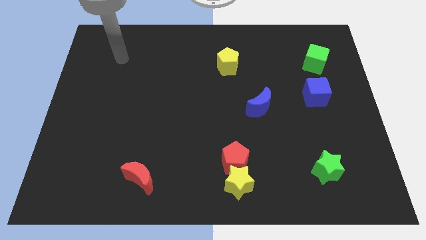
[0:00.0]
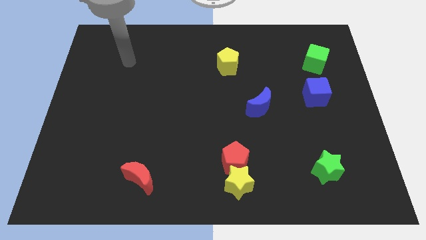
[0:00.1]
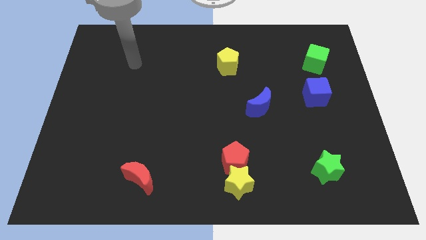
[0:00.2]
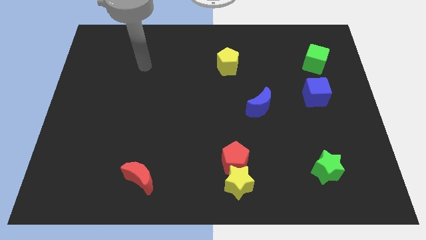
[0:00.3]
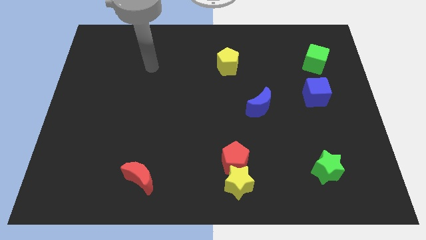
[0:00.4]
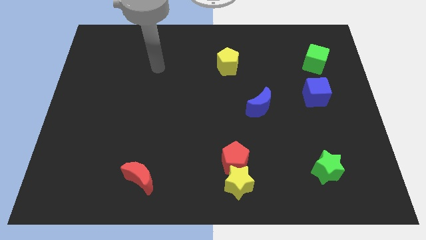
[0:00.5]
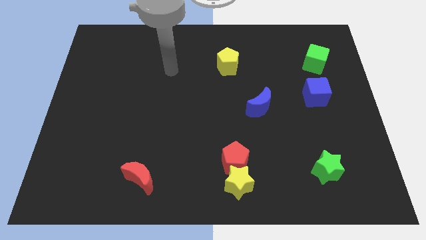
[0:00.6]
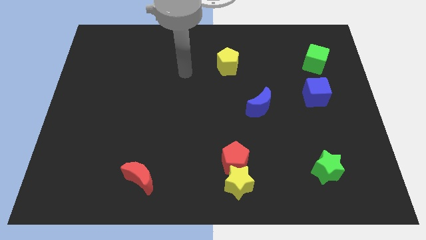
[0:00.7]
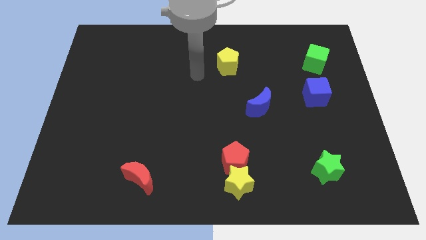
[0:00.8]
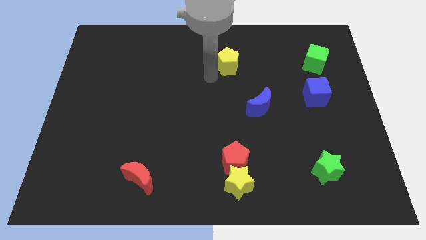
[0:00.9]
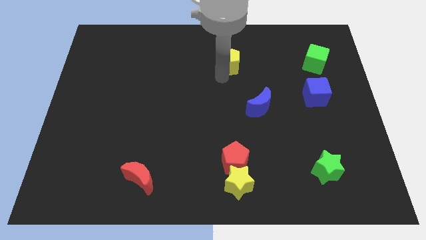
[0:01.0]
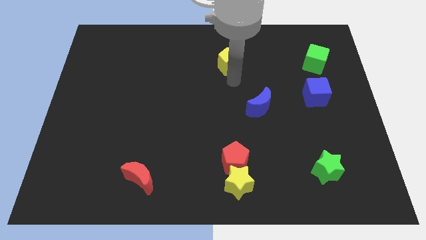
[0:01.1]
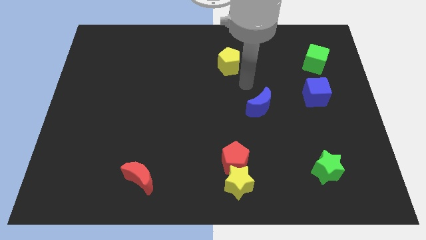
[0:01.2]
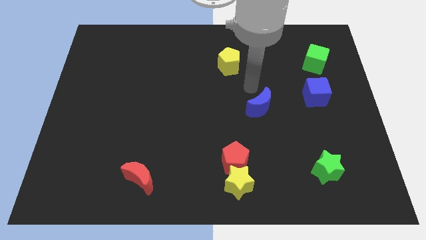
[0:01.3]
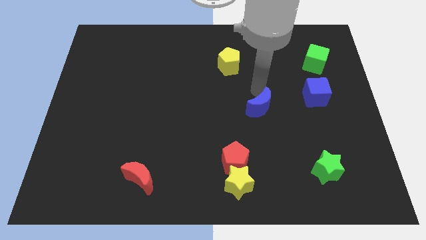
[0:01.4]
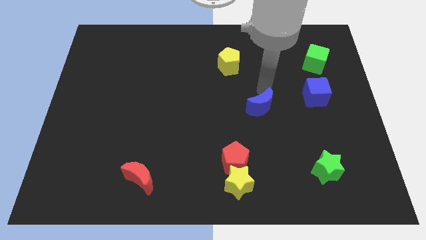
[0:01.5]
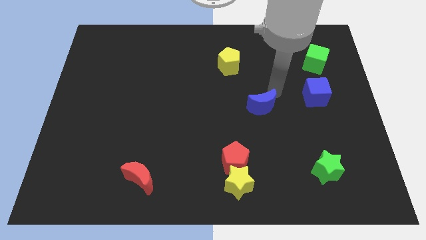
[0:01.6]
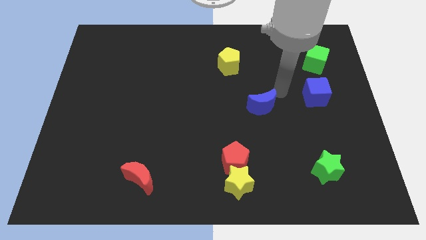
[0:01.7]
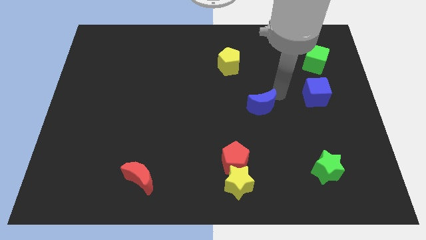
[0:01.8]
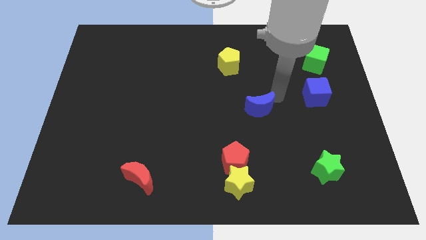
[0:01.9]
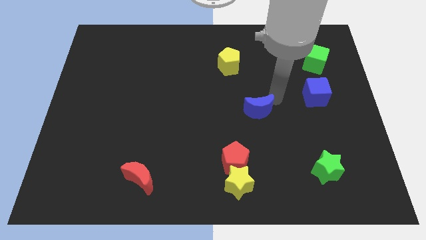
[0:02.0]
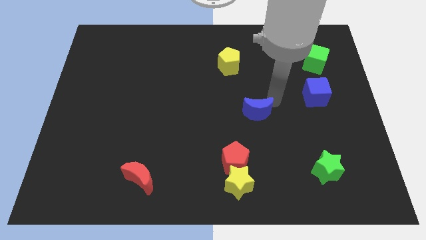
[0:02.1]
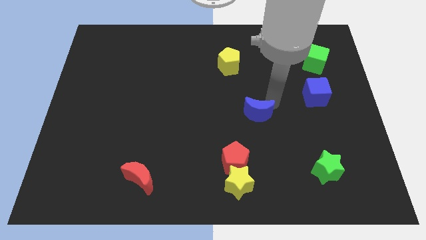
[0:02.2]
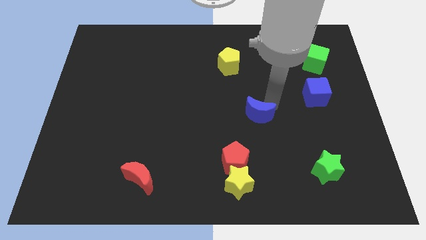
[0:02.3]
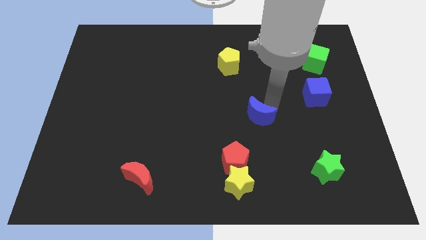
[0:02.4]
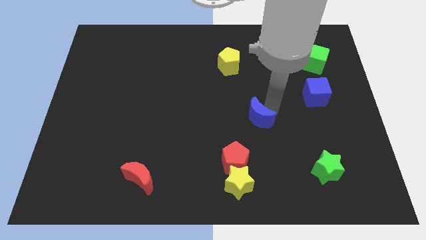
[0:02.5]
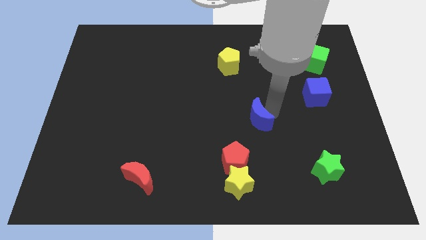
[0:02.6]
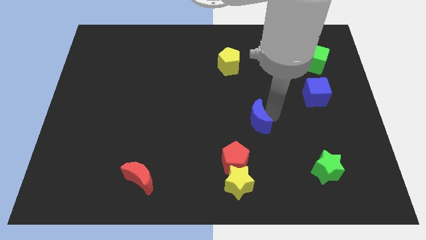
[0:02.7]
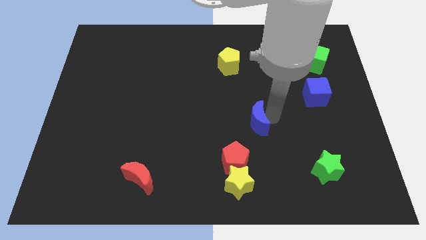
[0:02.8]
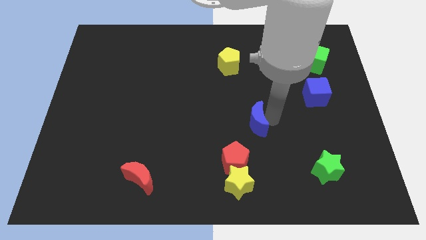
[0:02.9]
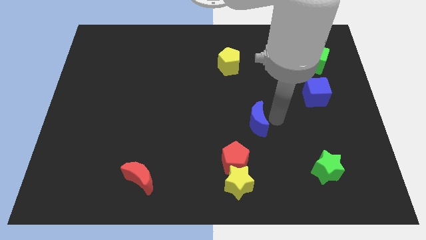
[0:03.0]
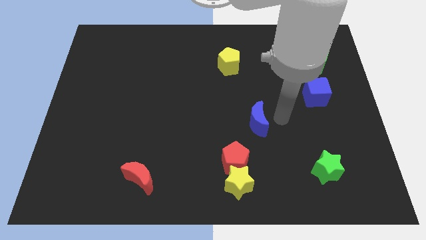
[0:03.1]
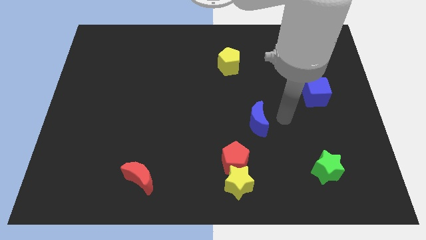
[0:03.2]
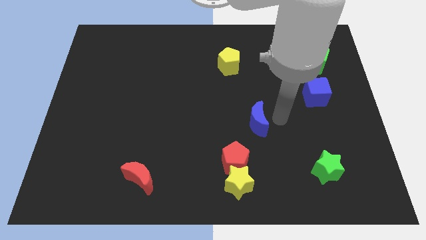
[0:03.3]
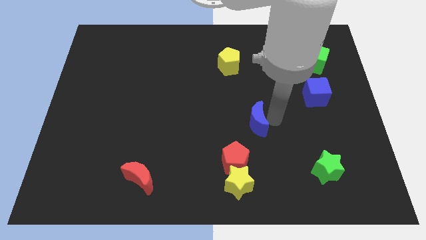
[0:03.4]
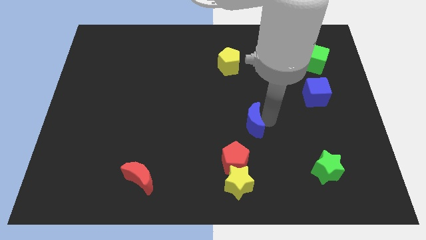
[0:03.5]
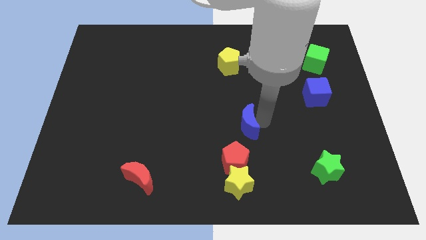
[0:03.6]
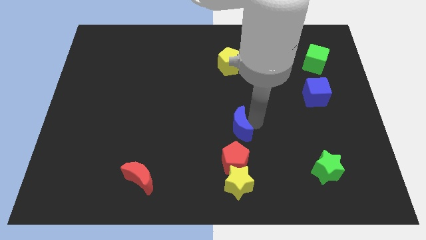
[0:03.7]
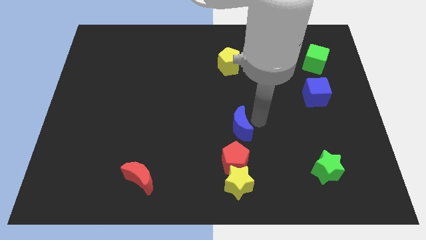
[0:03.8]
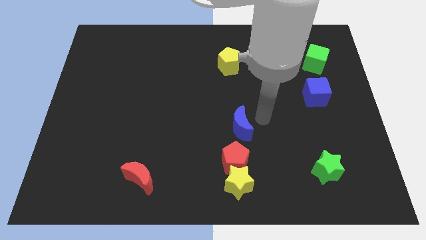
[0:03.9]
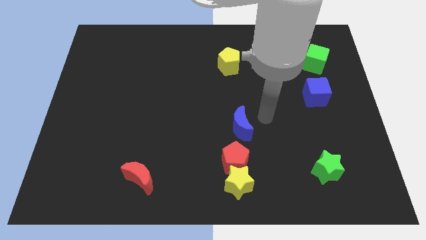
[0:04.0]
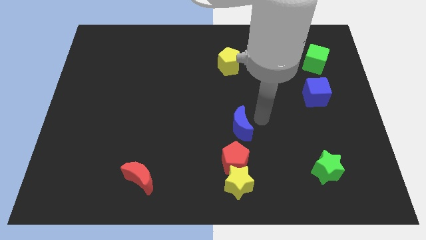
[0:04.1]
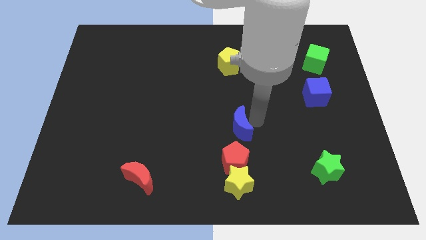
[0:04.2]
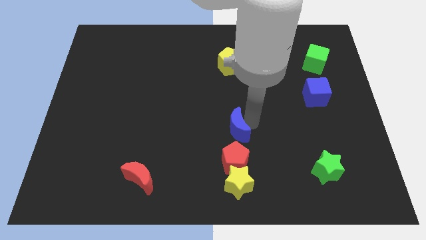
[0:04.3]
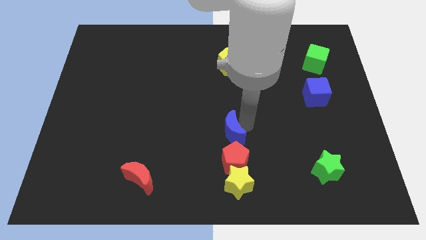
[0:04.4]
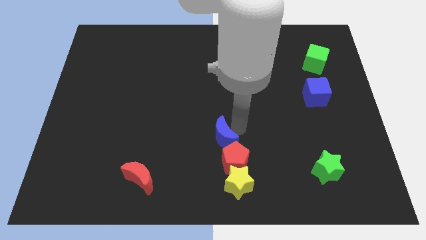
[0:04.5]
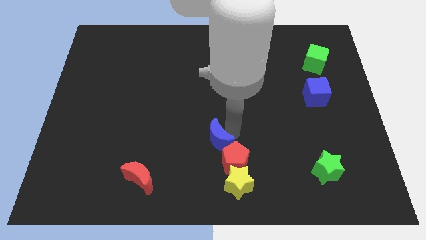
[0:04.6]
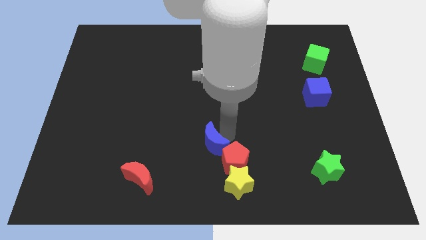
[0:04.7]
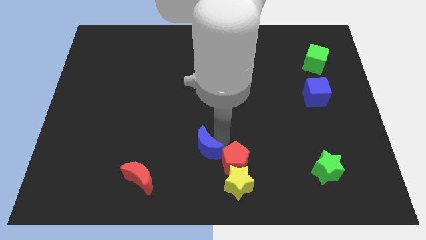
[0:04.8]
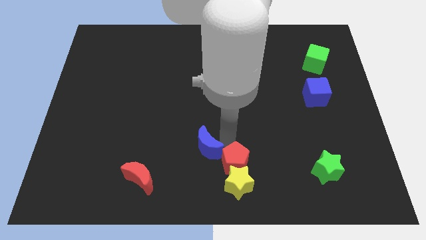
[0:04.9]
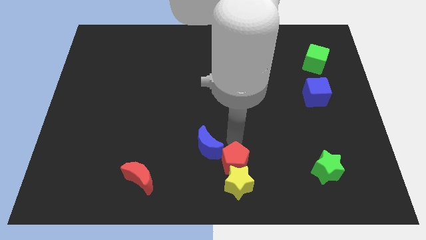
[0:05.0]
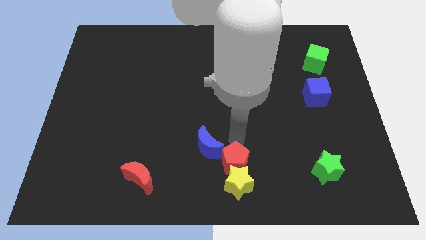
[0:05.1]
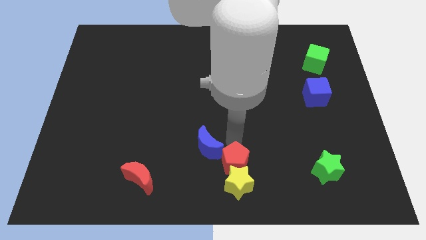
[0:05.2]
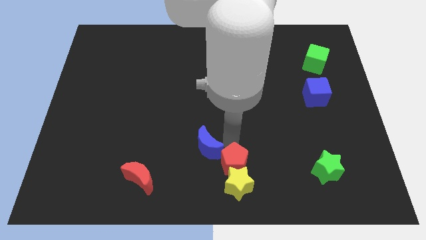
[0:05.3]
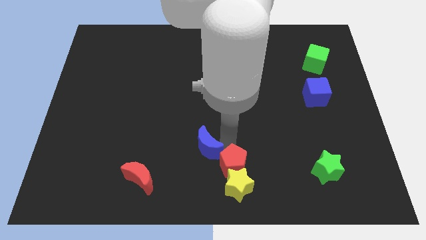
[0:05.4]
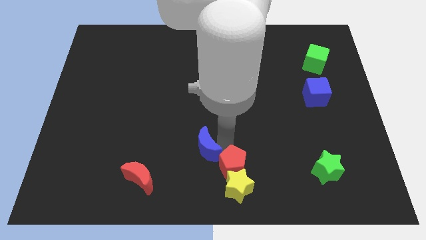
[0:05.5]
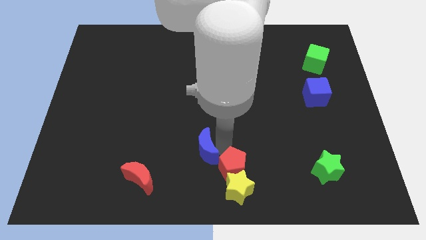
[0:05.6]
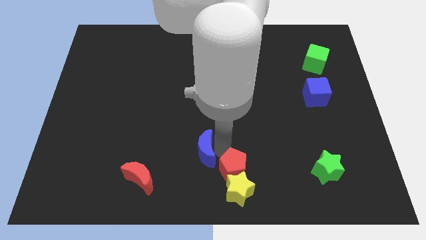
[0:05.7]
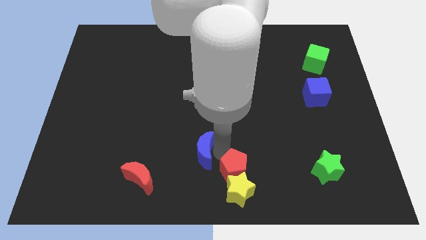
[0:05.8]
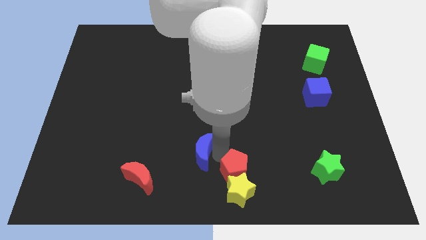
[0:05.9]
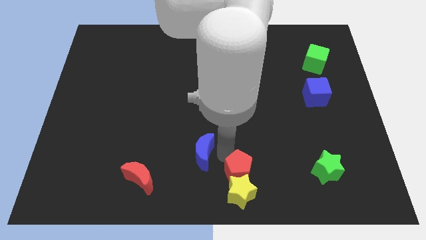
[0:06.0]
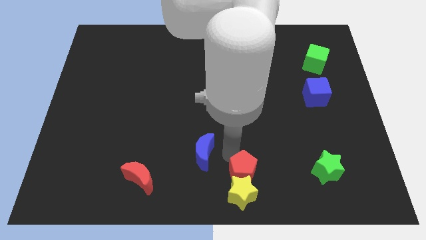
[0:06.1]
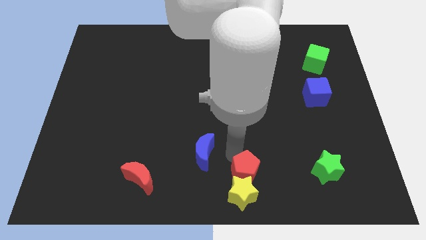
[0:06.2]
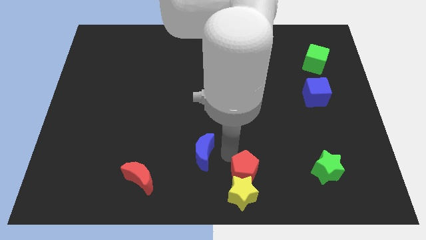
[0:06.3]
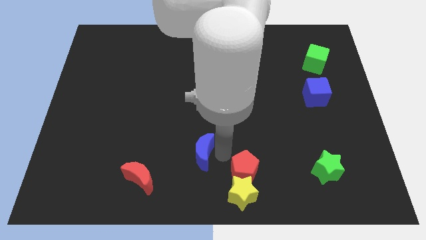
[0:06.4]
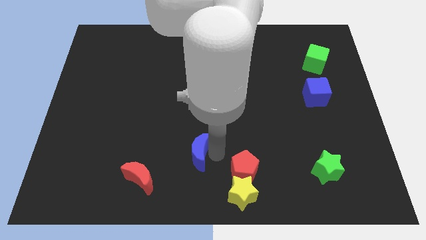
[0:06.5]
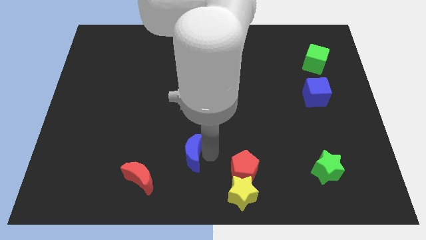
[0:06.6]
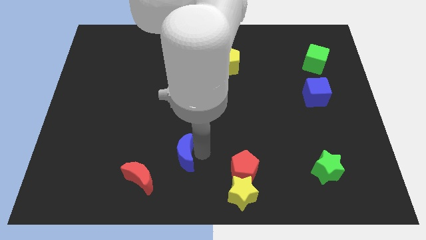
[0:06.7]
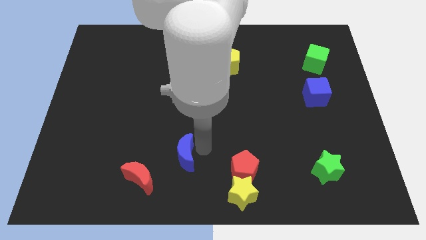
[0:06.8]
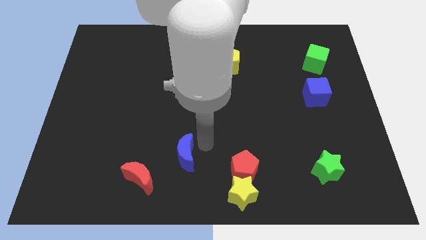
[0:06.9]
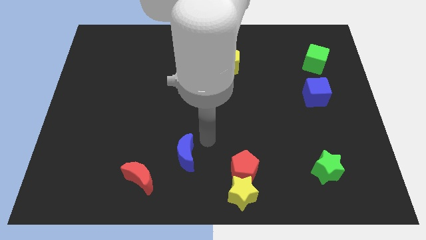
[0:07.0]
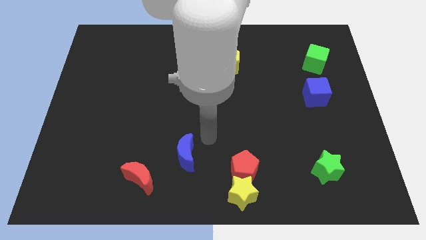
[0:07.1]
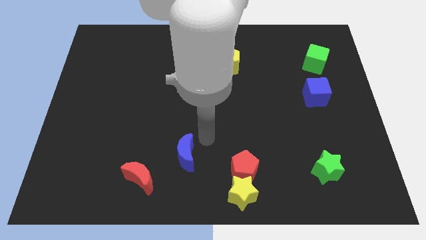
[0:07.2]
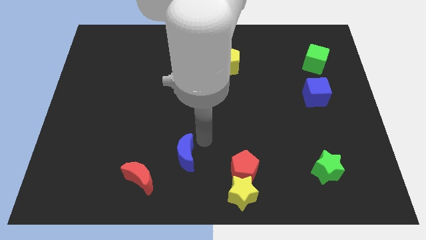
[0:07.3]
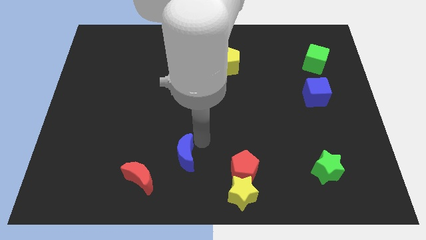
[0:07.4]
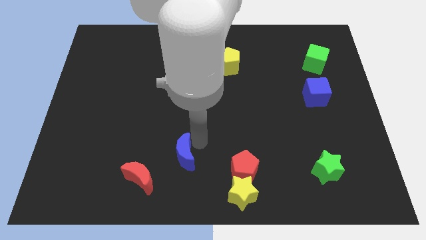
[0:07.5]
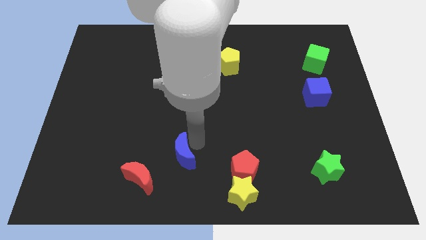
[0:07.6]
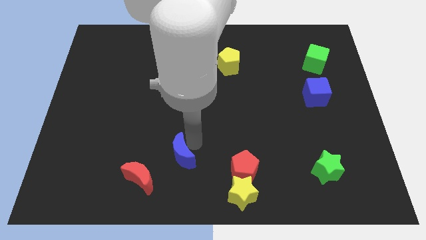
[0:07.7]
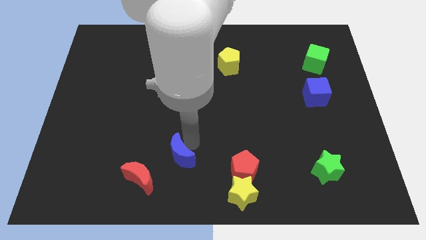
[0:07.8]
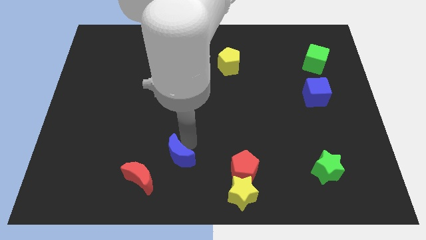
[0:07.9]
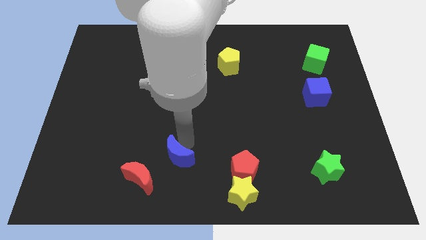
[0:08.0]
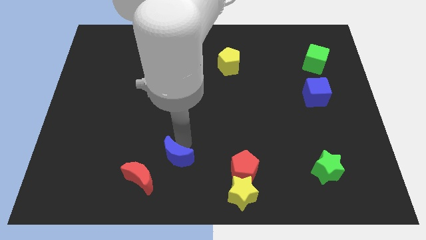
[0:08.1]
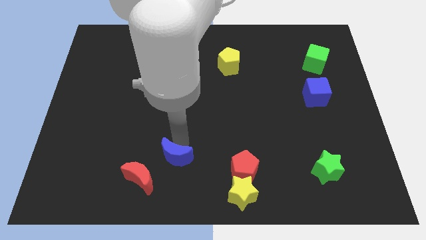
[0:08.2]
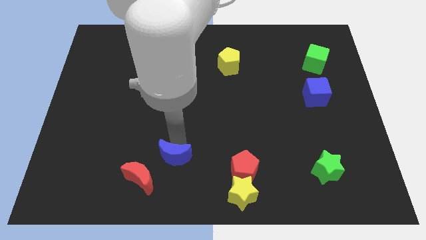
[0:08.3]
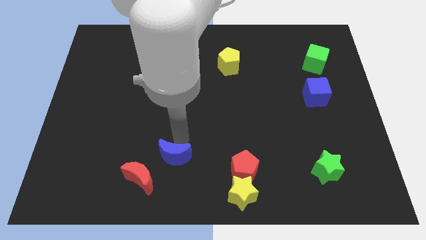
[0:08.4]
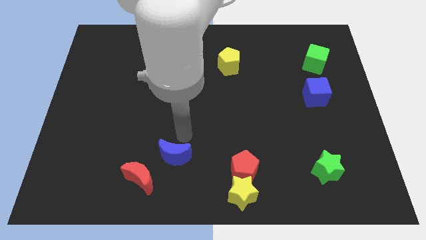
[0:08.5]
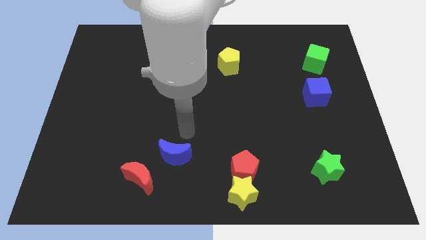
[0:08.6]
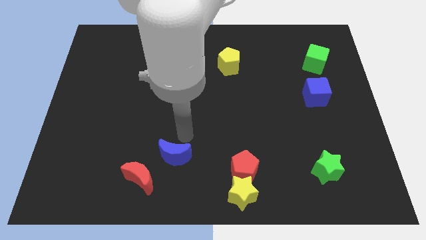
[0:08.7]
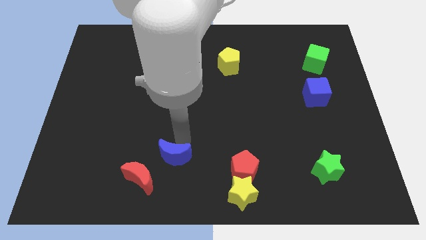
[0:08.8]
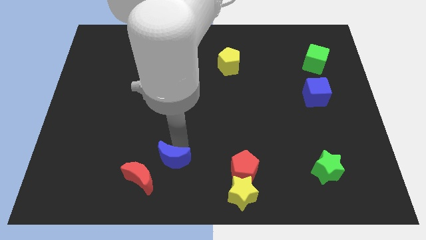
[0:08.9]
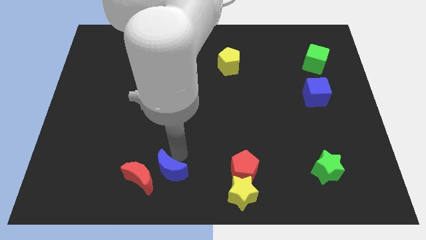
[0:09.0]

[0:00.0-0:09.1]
put the blue moon next to the red moon
